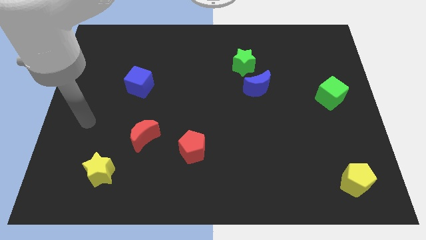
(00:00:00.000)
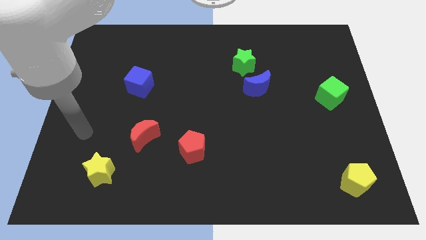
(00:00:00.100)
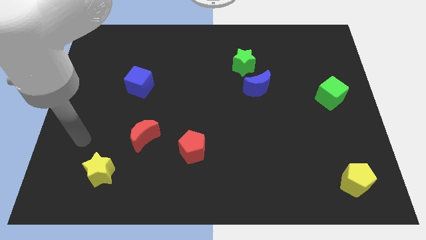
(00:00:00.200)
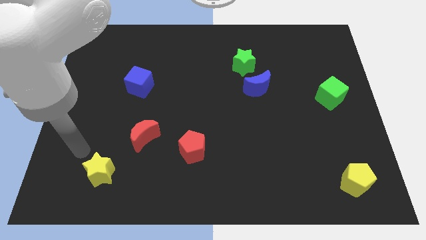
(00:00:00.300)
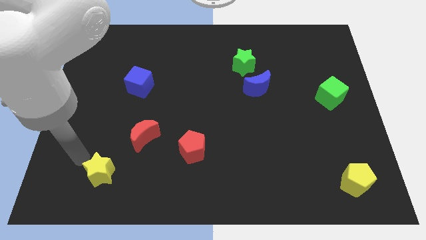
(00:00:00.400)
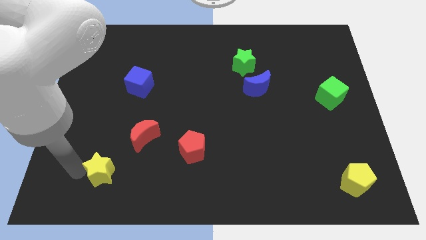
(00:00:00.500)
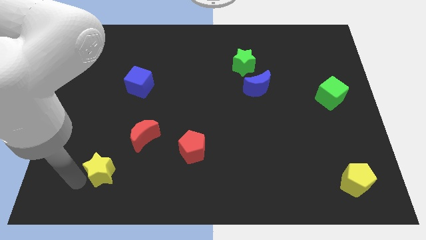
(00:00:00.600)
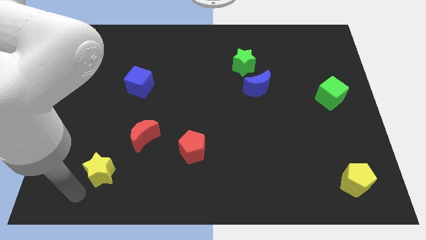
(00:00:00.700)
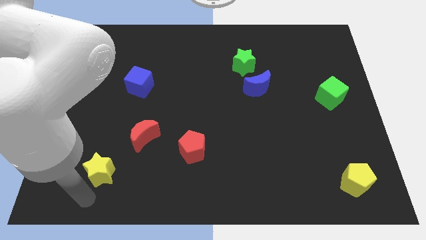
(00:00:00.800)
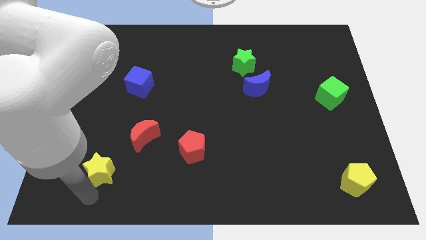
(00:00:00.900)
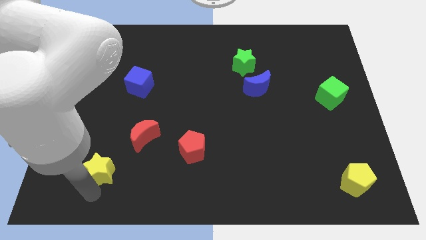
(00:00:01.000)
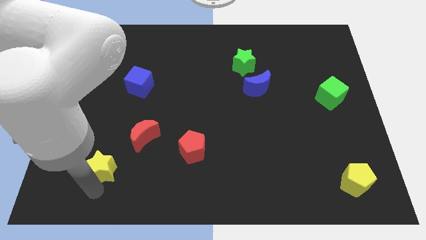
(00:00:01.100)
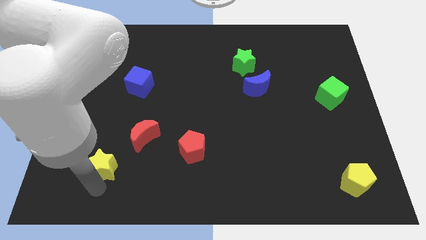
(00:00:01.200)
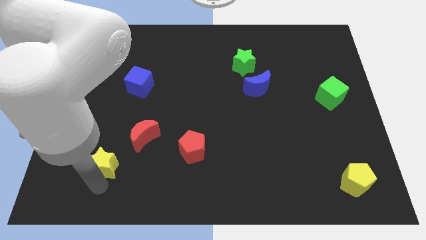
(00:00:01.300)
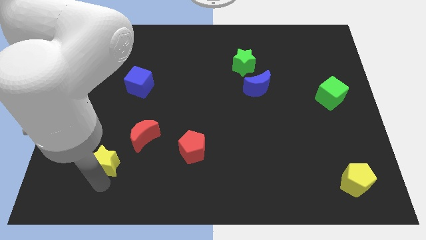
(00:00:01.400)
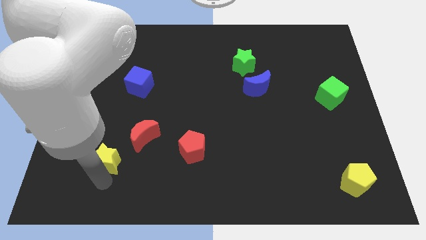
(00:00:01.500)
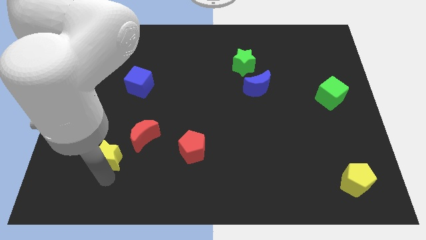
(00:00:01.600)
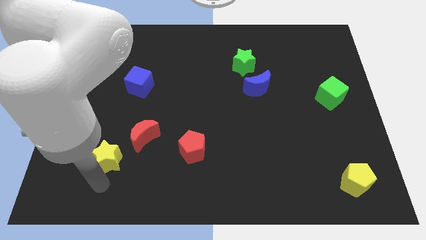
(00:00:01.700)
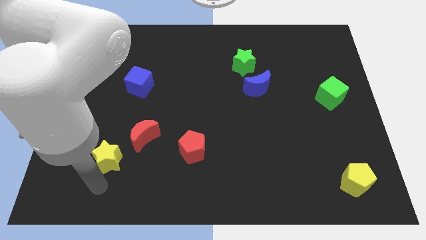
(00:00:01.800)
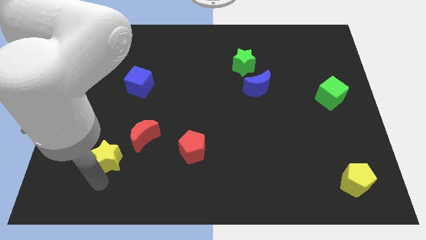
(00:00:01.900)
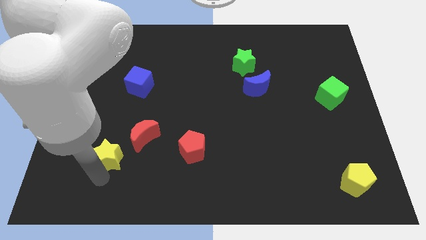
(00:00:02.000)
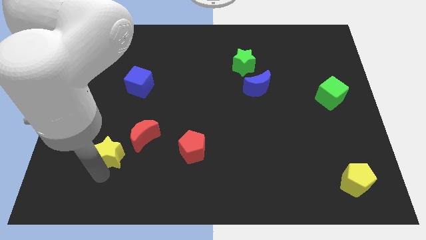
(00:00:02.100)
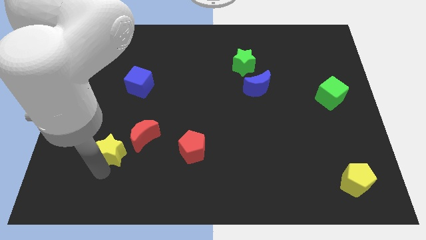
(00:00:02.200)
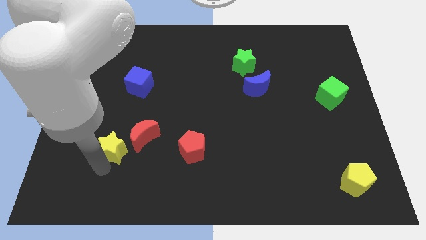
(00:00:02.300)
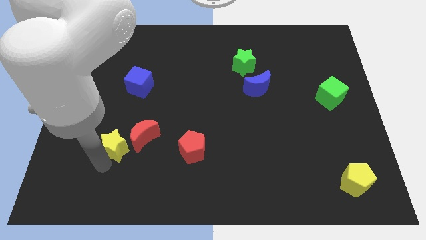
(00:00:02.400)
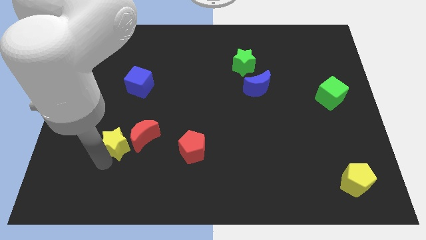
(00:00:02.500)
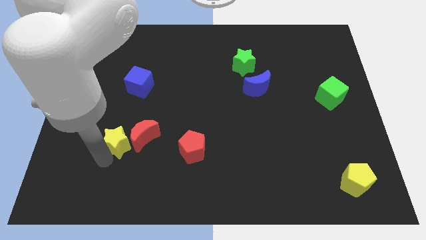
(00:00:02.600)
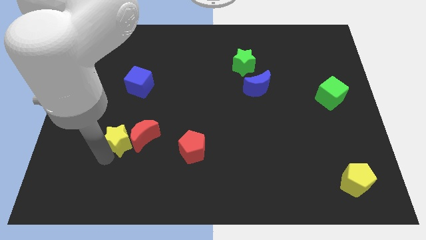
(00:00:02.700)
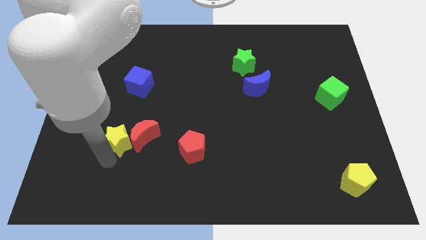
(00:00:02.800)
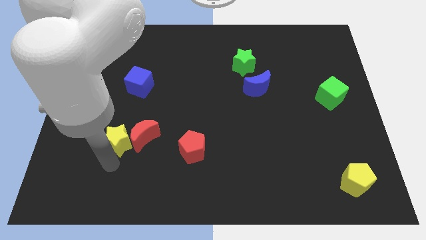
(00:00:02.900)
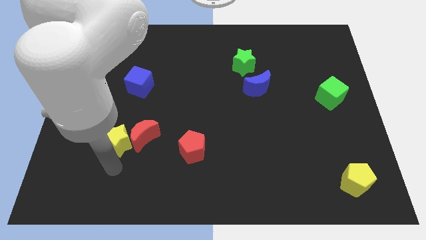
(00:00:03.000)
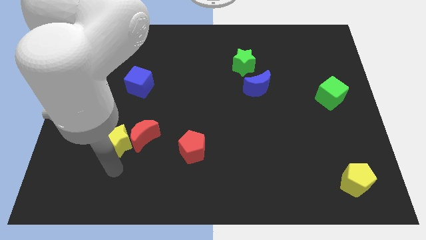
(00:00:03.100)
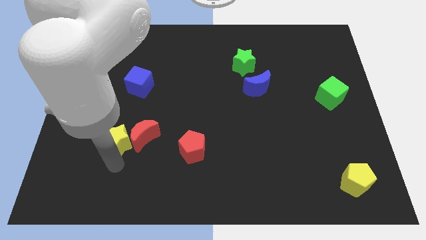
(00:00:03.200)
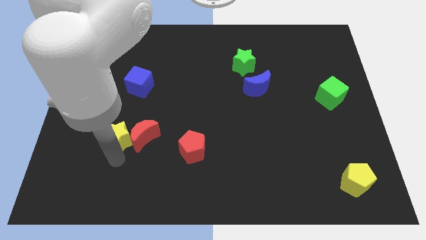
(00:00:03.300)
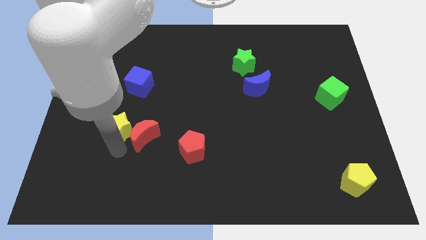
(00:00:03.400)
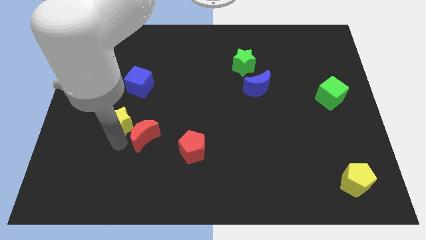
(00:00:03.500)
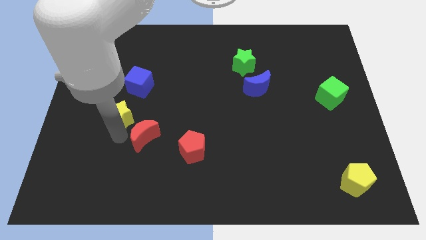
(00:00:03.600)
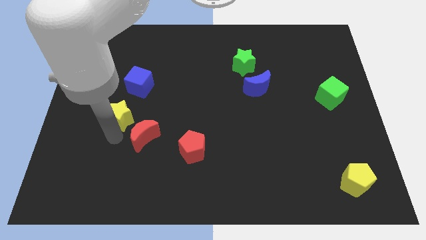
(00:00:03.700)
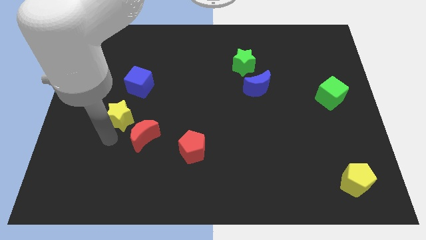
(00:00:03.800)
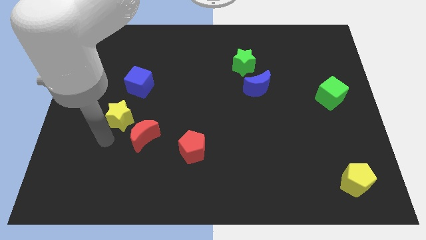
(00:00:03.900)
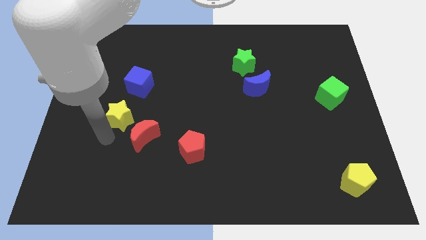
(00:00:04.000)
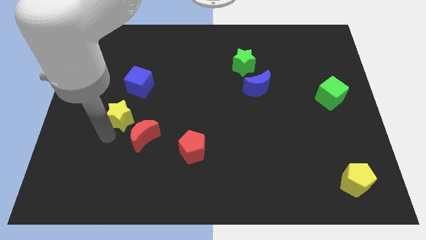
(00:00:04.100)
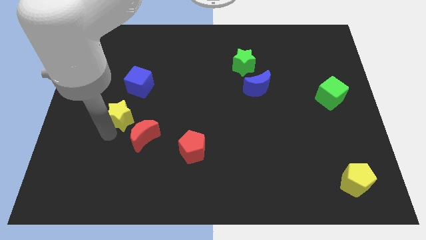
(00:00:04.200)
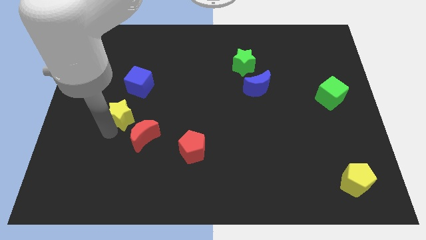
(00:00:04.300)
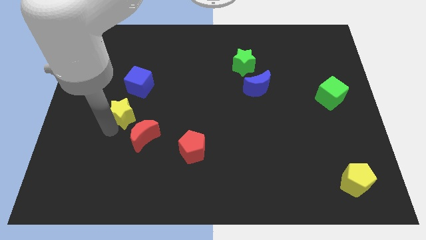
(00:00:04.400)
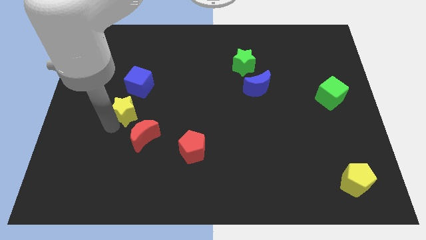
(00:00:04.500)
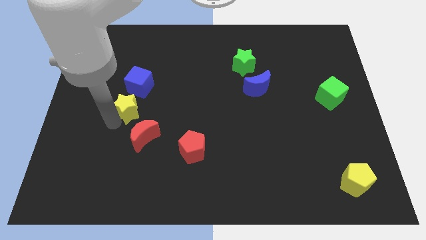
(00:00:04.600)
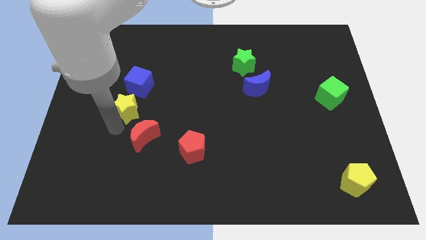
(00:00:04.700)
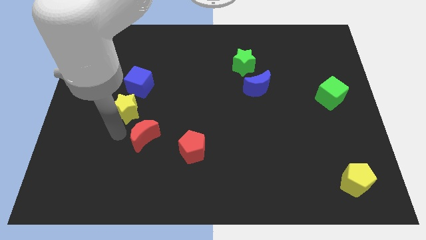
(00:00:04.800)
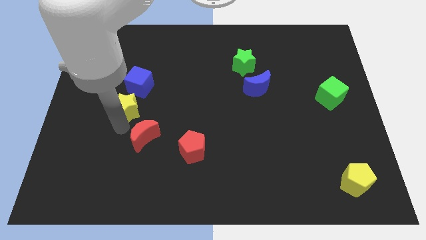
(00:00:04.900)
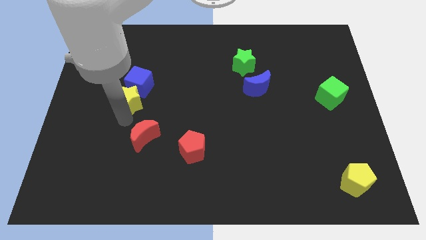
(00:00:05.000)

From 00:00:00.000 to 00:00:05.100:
slide the yellow star to the blue cube

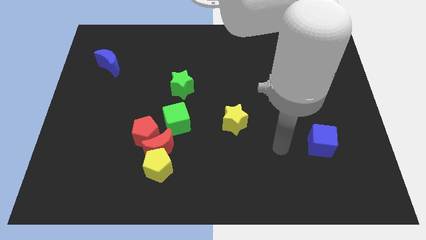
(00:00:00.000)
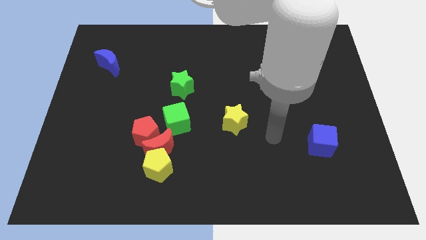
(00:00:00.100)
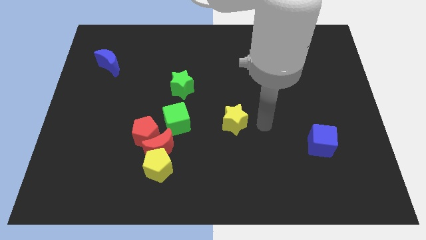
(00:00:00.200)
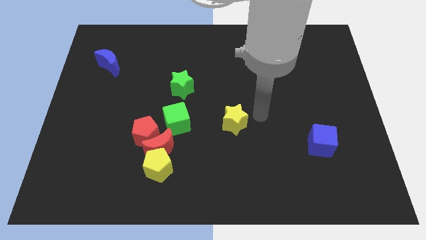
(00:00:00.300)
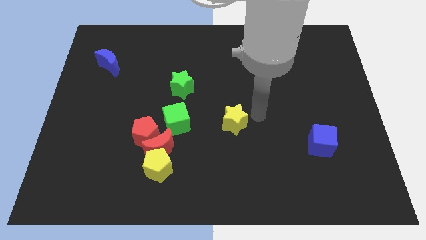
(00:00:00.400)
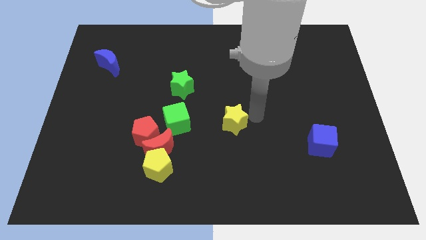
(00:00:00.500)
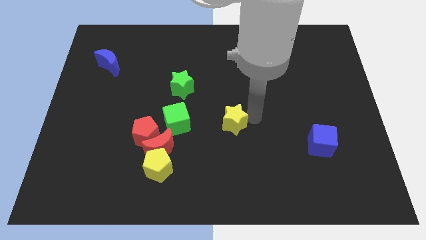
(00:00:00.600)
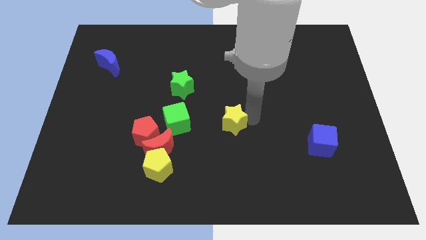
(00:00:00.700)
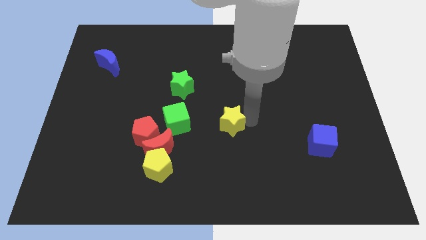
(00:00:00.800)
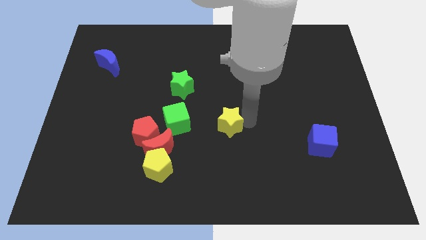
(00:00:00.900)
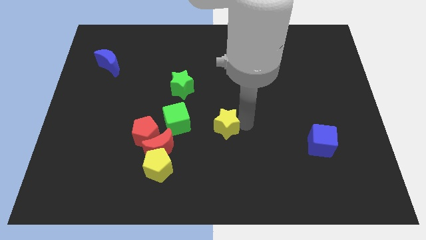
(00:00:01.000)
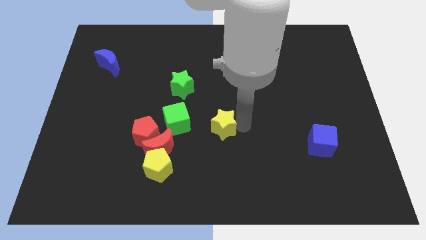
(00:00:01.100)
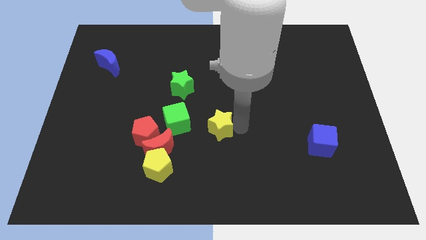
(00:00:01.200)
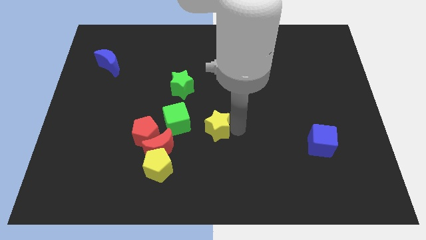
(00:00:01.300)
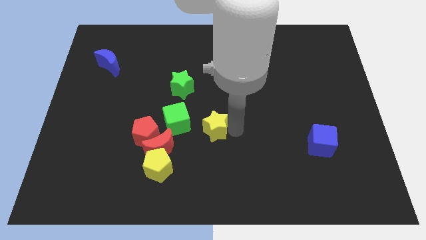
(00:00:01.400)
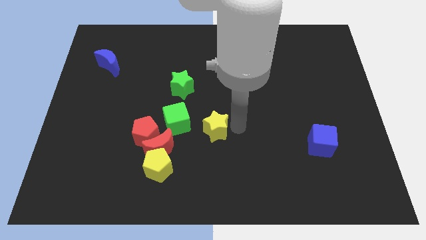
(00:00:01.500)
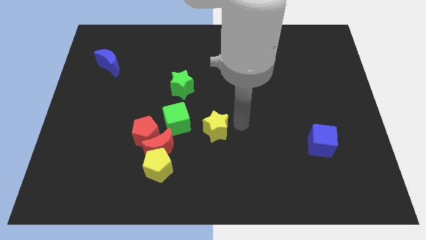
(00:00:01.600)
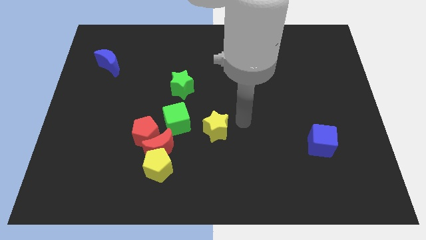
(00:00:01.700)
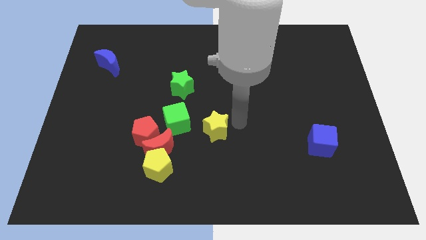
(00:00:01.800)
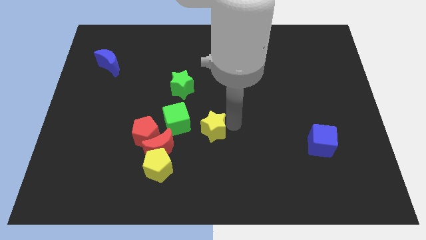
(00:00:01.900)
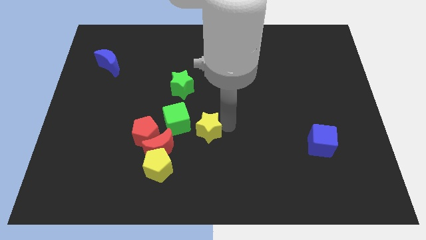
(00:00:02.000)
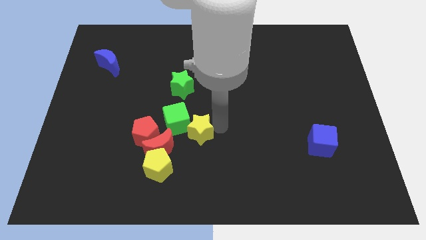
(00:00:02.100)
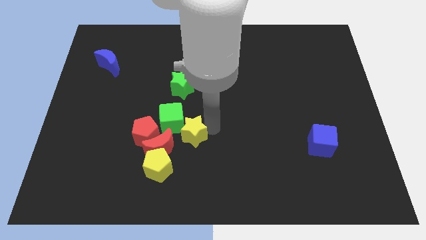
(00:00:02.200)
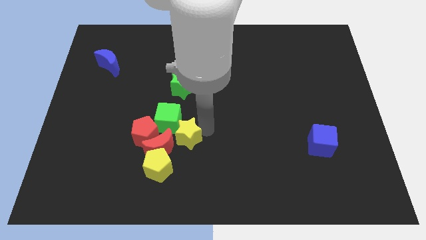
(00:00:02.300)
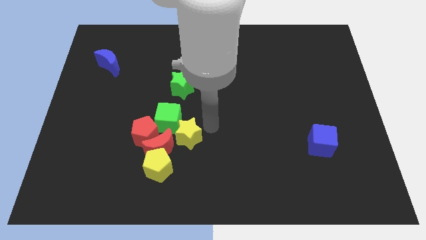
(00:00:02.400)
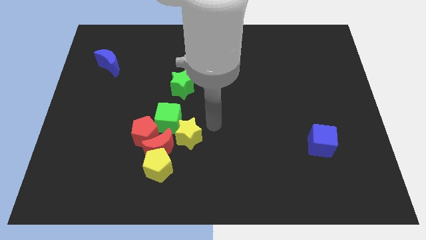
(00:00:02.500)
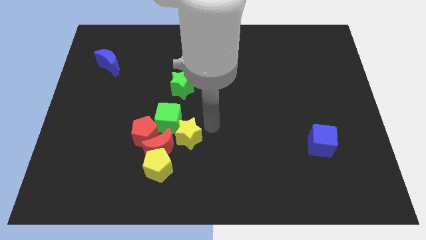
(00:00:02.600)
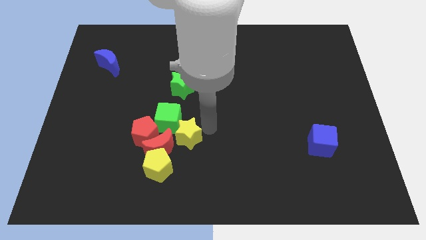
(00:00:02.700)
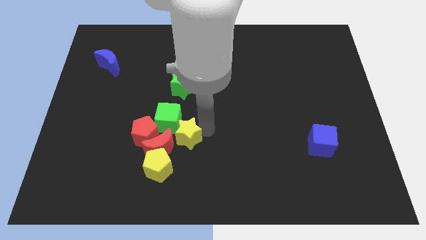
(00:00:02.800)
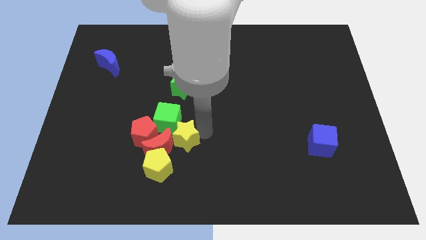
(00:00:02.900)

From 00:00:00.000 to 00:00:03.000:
push the yellow star next to the red moon
